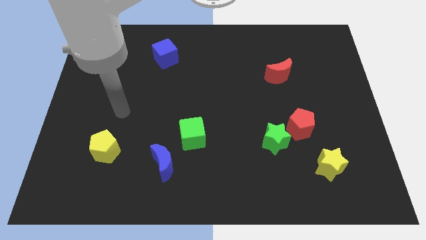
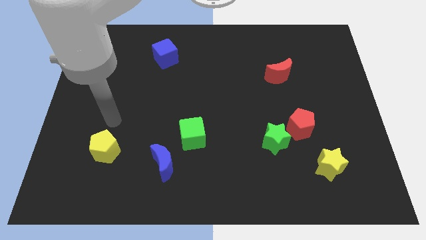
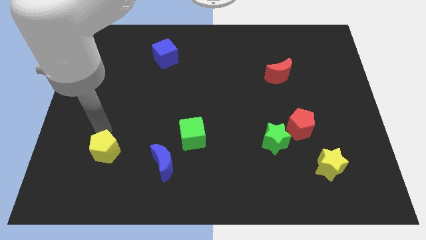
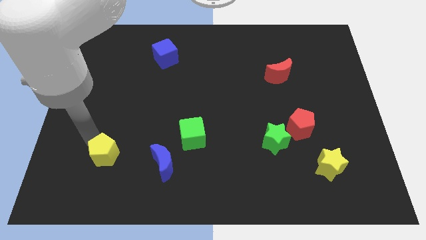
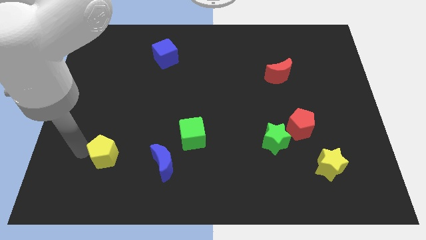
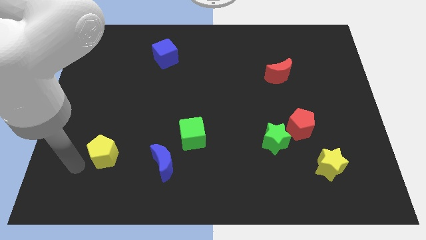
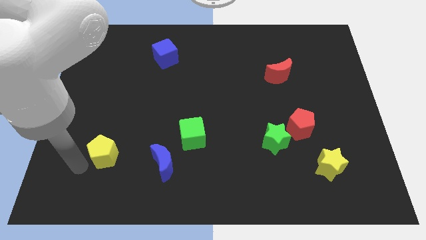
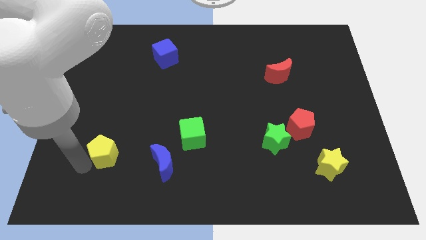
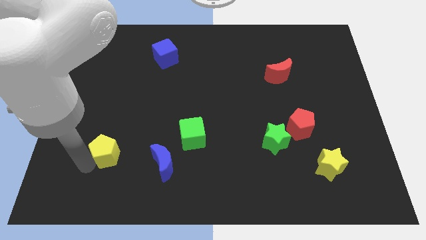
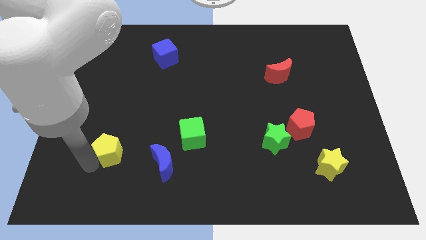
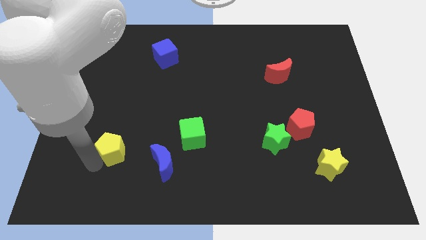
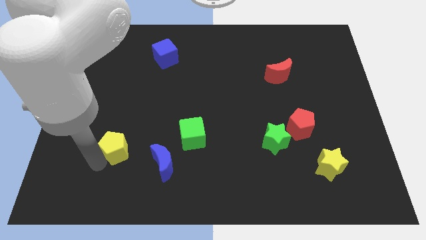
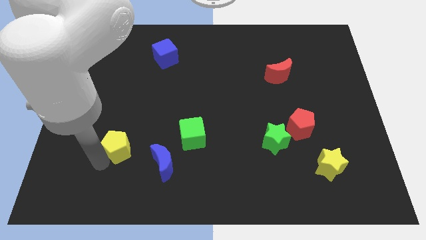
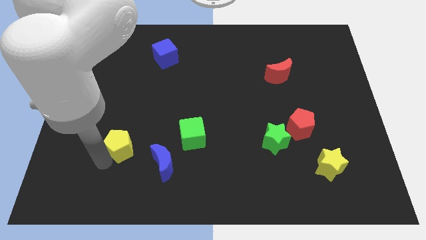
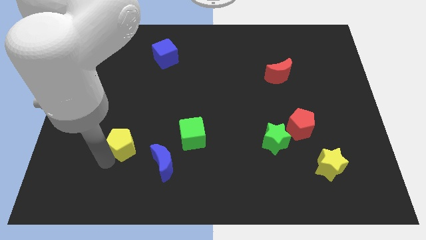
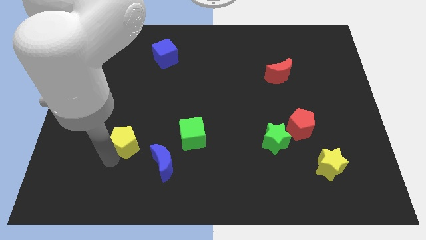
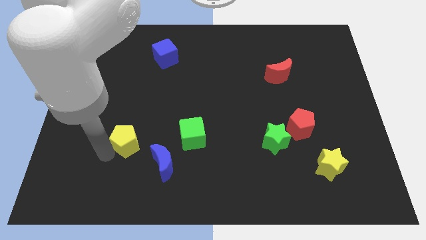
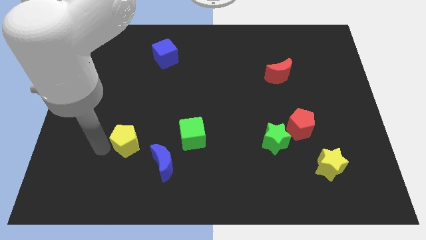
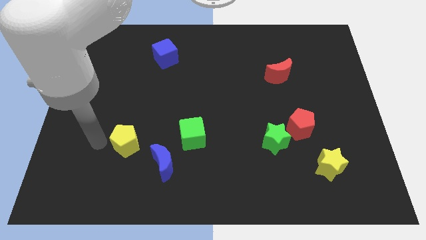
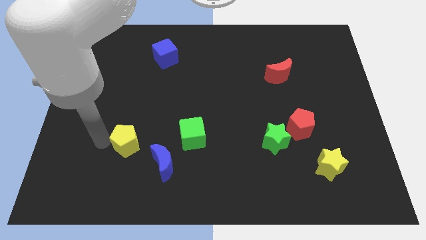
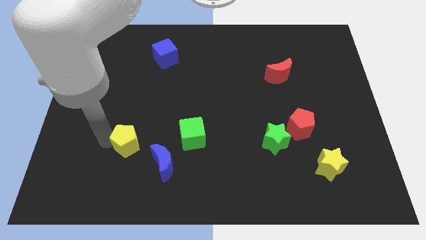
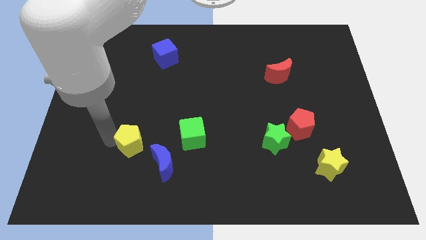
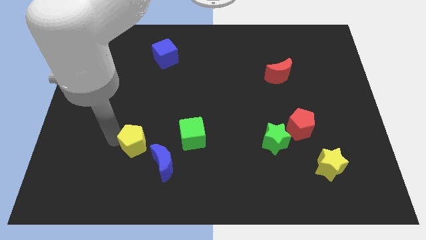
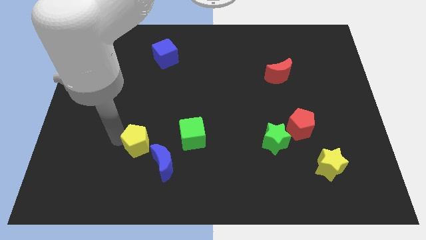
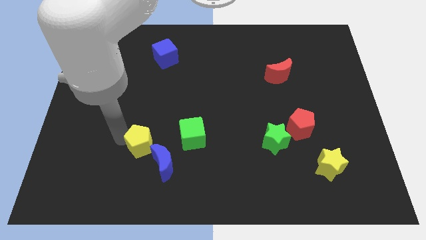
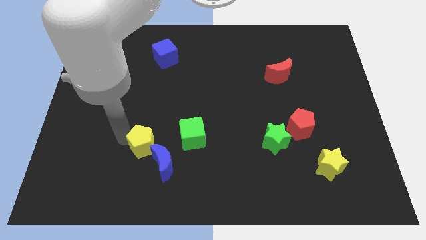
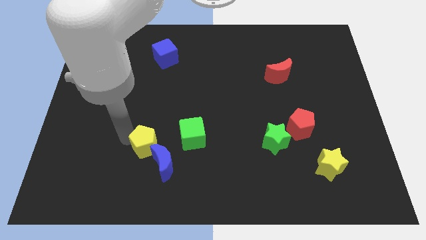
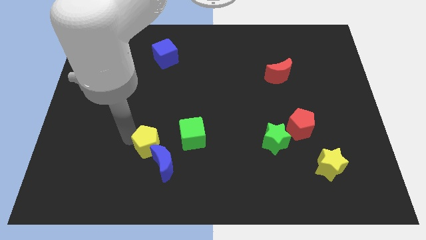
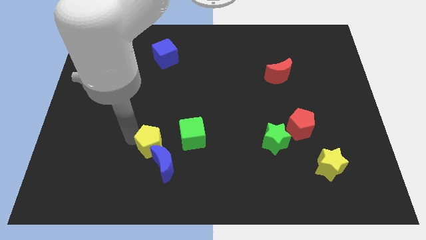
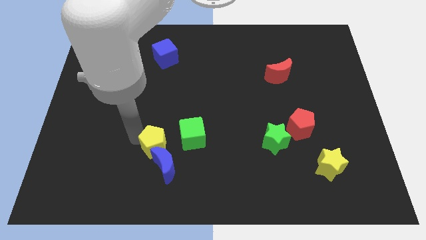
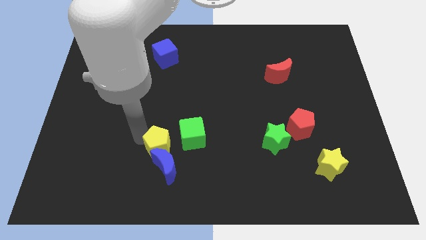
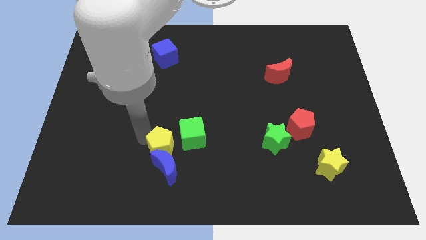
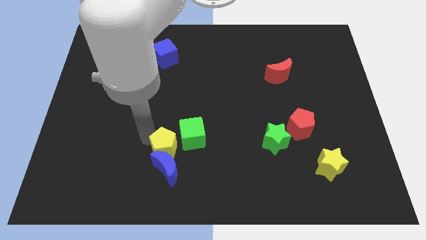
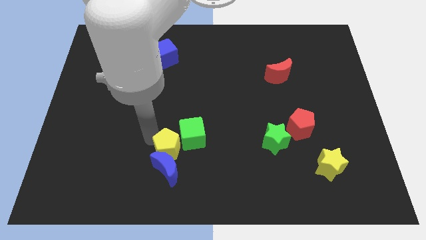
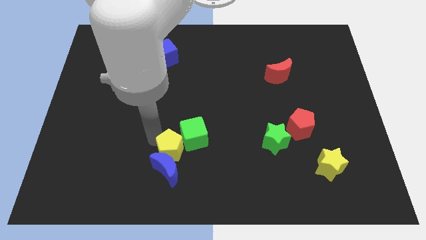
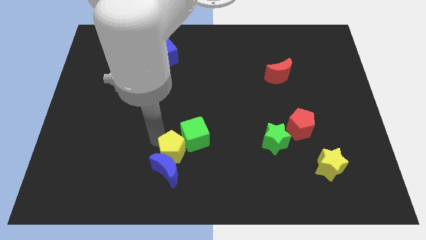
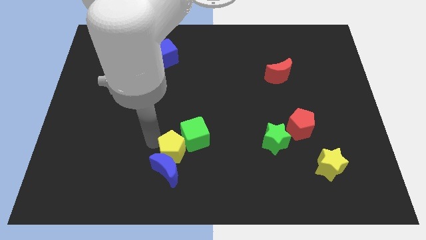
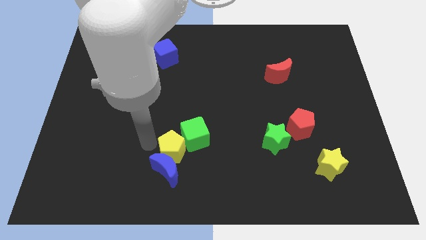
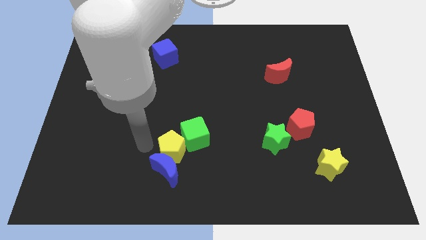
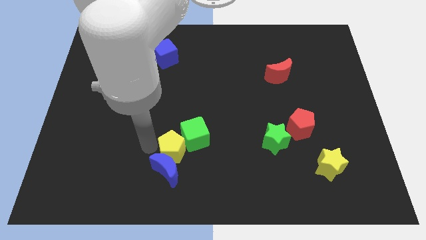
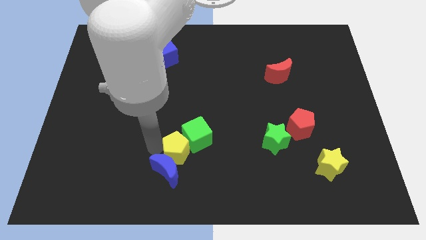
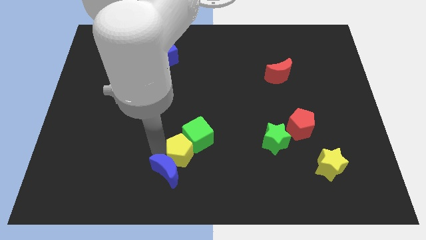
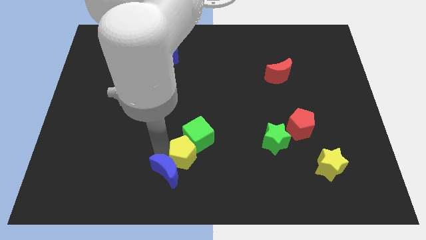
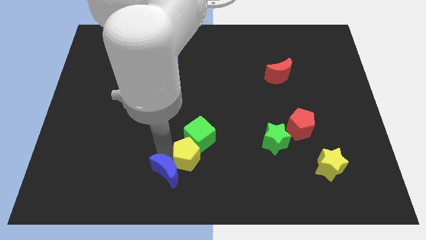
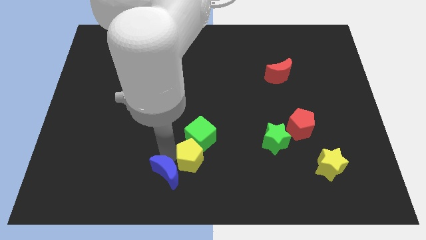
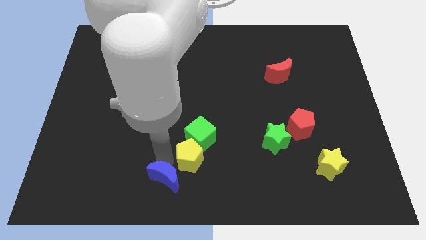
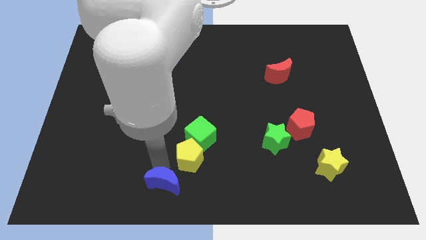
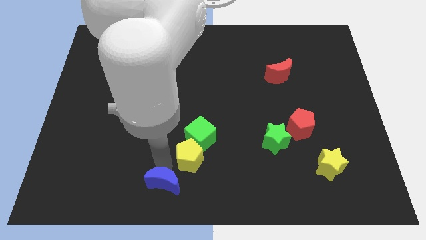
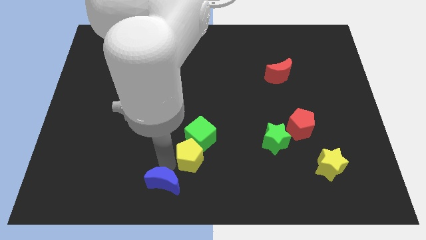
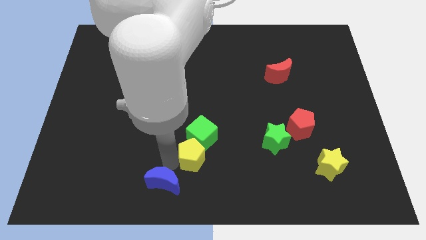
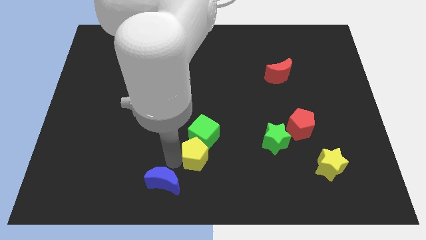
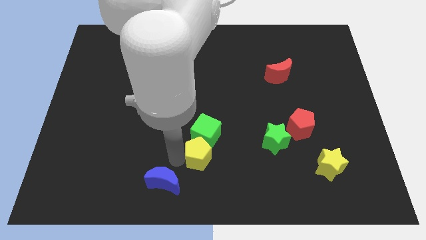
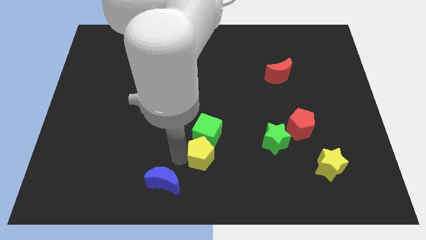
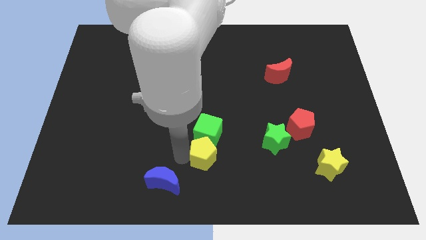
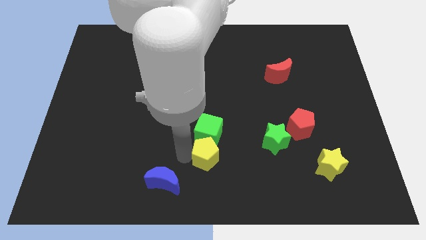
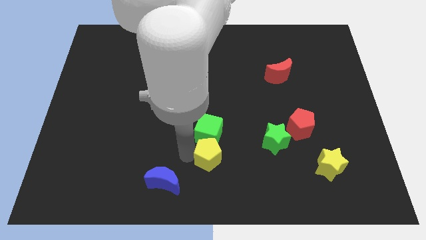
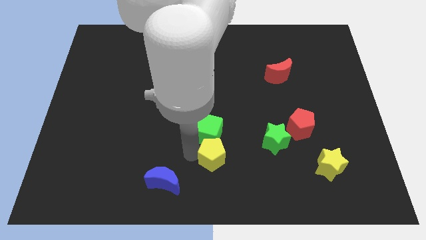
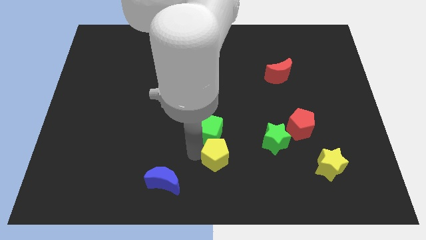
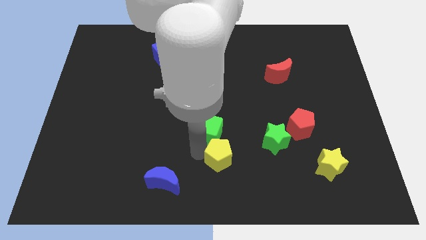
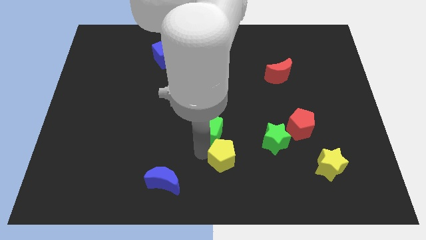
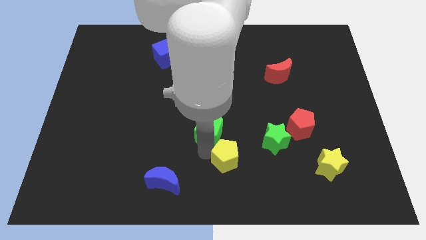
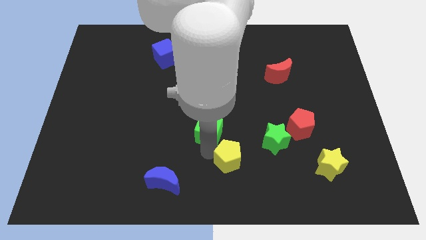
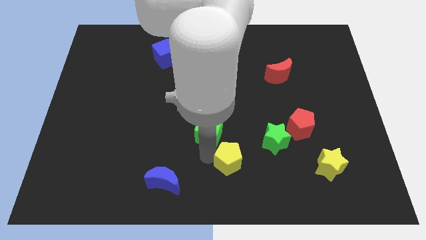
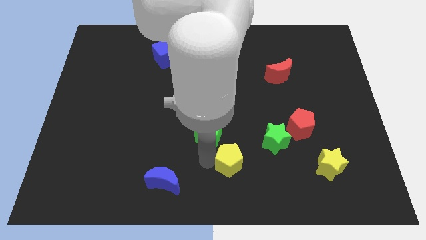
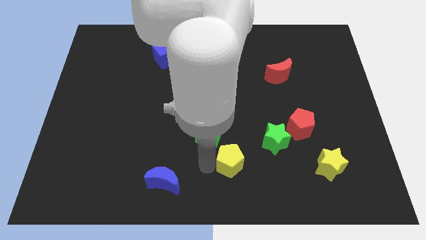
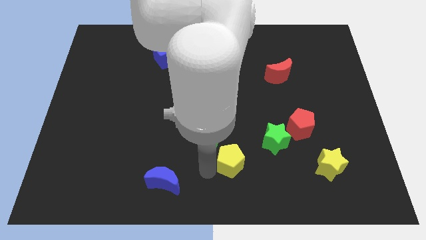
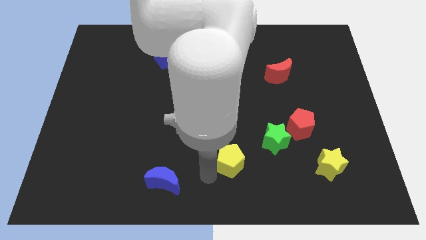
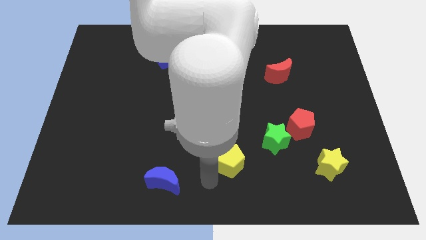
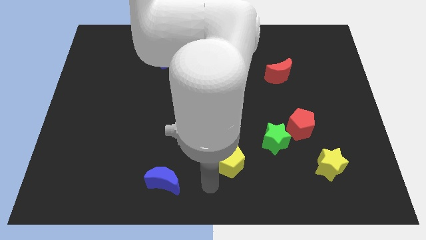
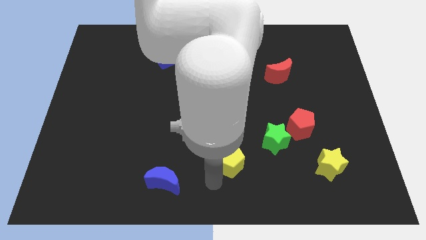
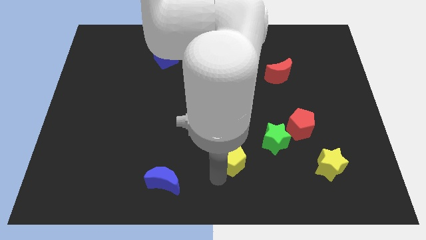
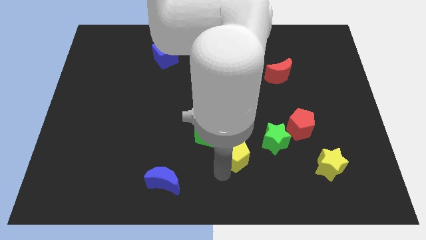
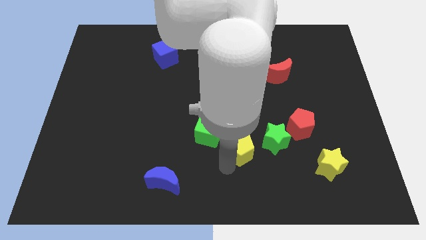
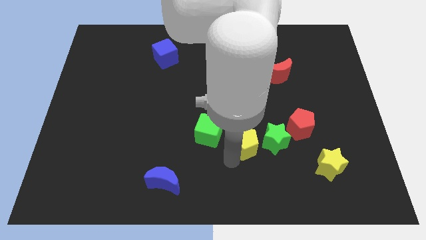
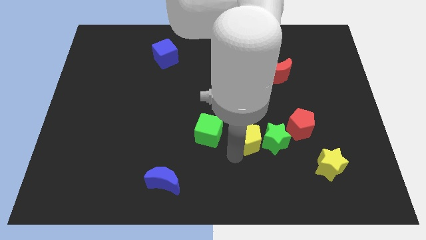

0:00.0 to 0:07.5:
put the yellow pentagon to the green star
